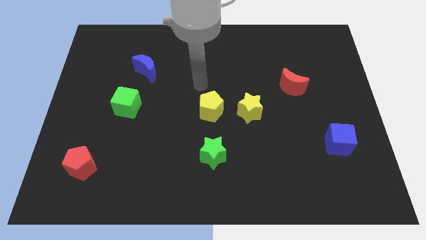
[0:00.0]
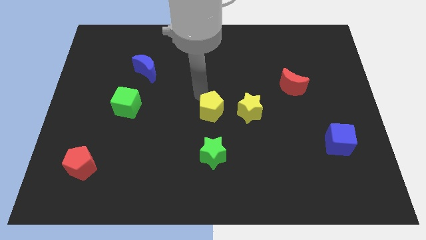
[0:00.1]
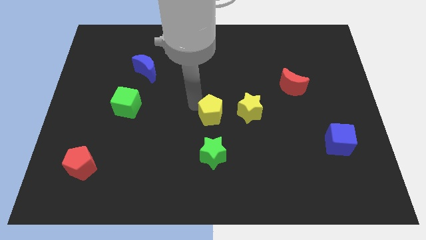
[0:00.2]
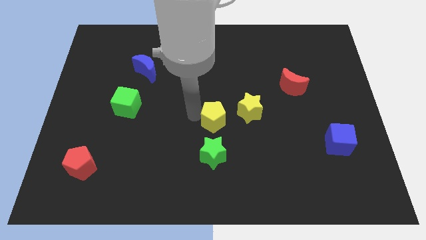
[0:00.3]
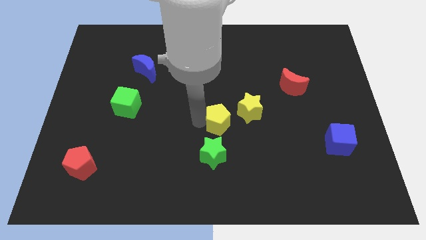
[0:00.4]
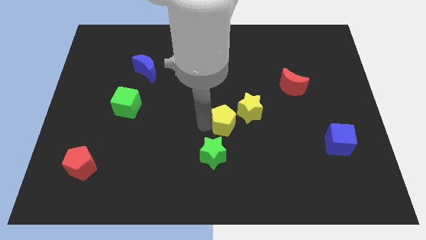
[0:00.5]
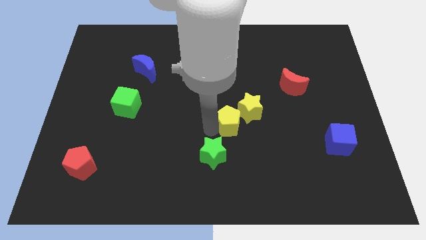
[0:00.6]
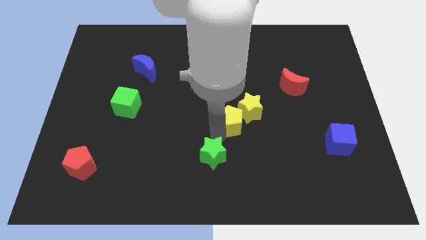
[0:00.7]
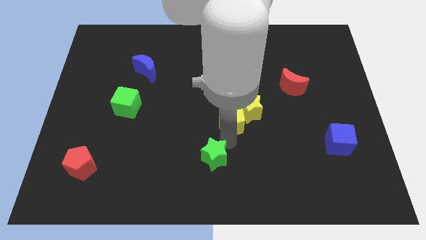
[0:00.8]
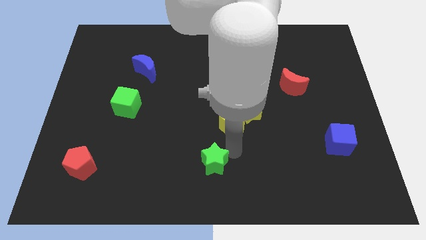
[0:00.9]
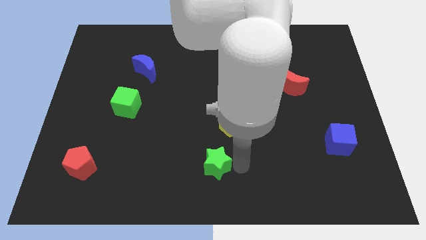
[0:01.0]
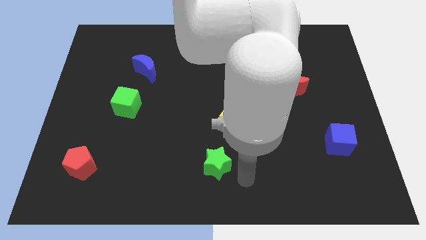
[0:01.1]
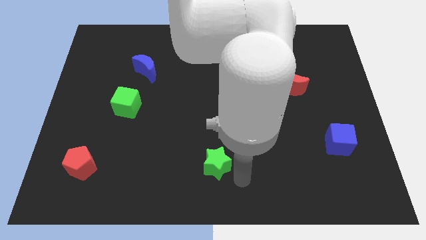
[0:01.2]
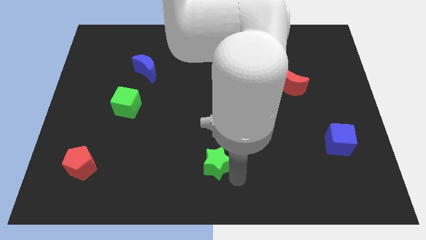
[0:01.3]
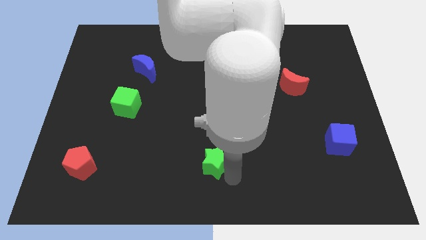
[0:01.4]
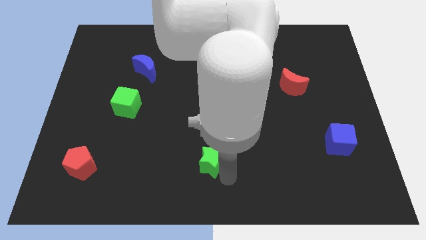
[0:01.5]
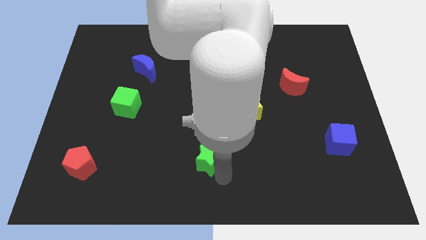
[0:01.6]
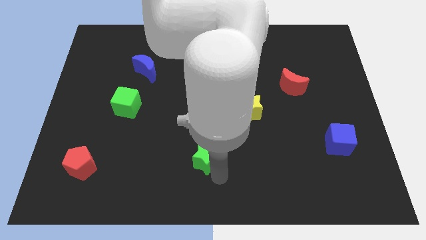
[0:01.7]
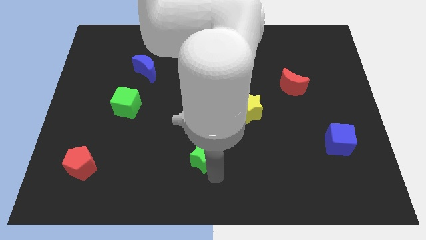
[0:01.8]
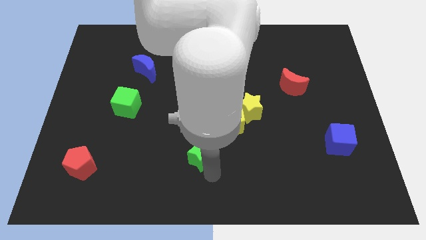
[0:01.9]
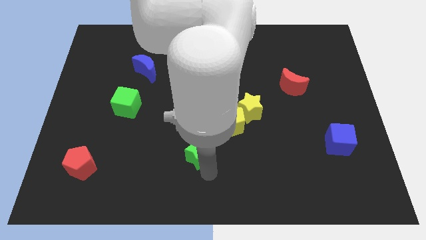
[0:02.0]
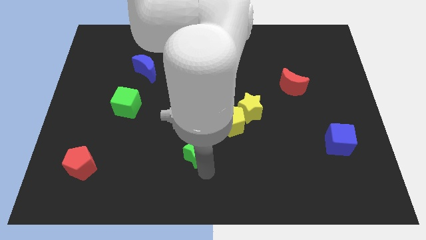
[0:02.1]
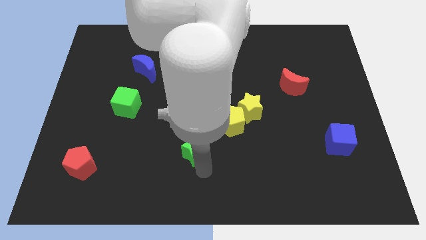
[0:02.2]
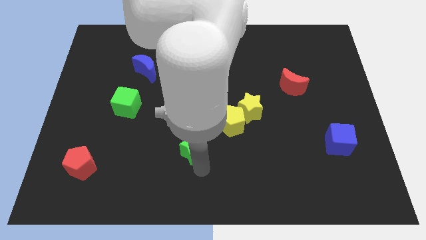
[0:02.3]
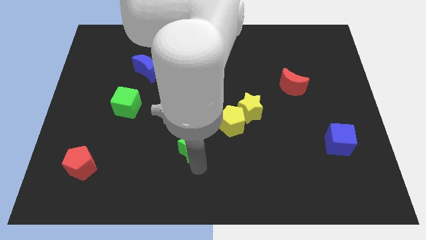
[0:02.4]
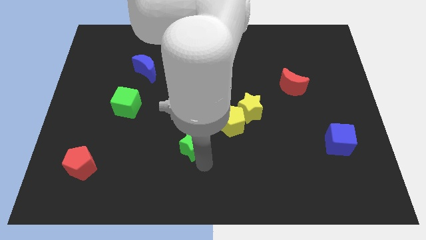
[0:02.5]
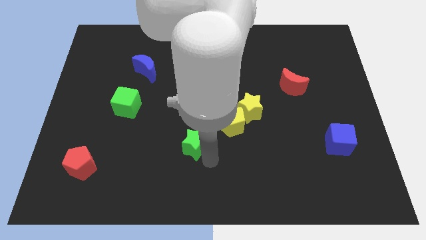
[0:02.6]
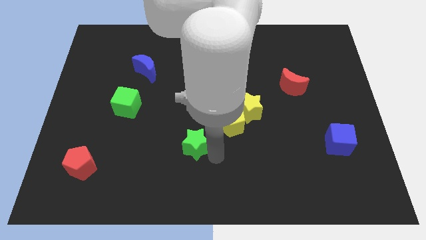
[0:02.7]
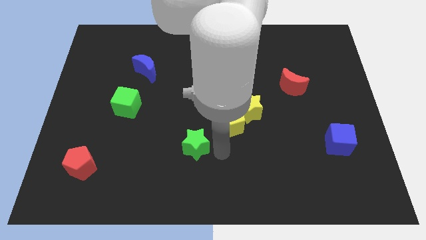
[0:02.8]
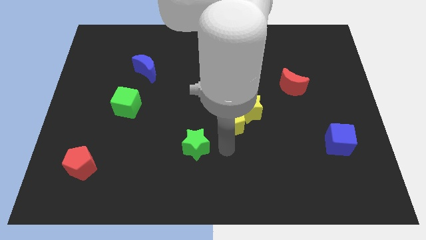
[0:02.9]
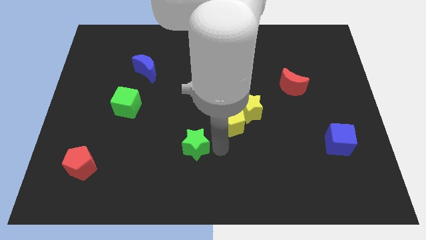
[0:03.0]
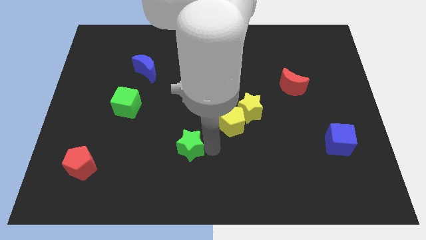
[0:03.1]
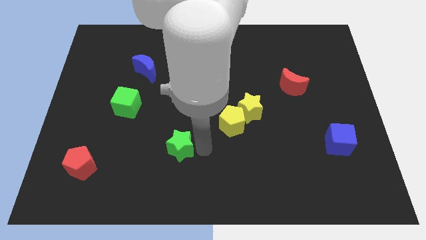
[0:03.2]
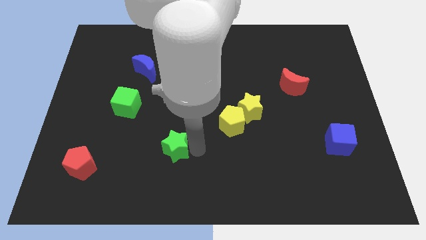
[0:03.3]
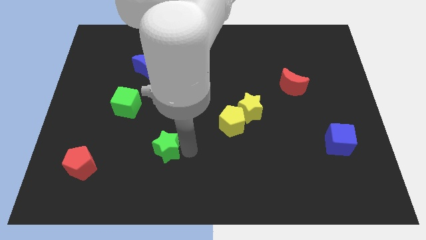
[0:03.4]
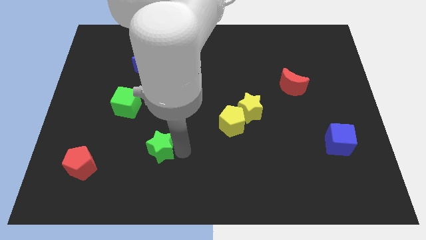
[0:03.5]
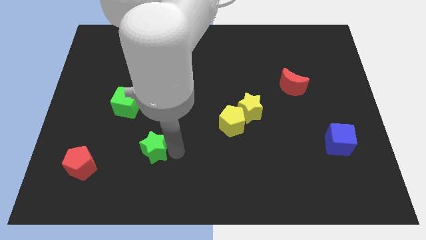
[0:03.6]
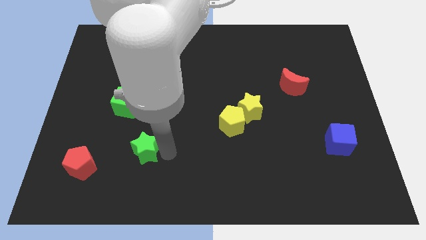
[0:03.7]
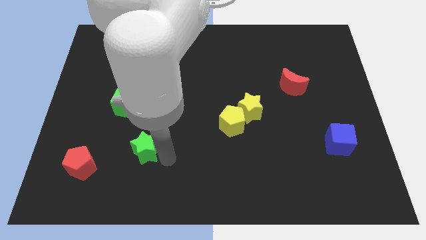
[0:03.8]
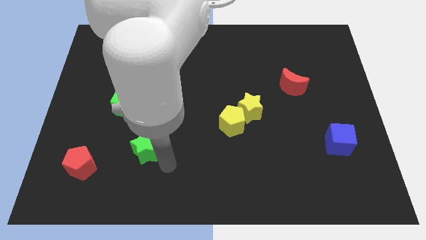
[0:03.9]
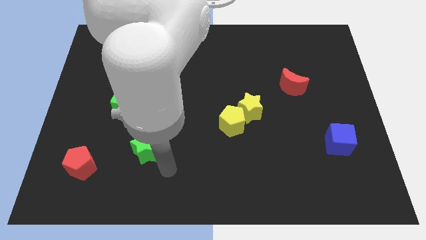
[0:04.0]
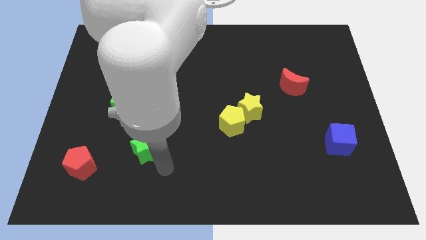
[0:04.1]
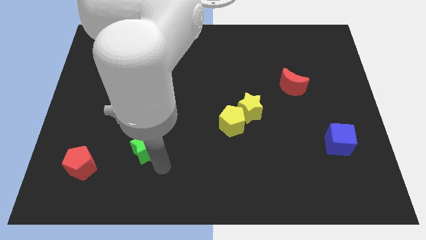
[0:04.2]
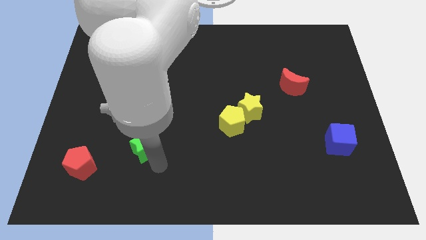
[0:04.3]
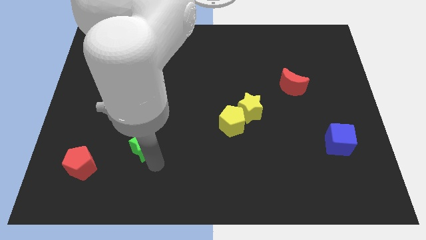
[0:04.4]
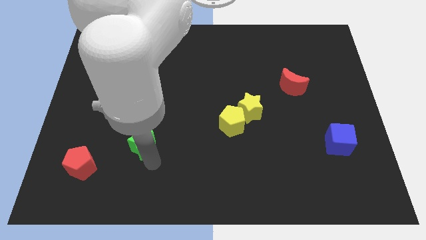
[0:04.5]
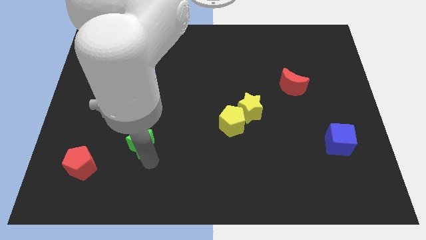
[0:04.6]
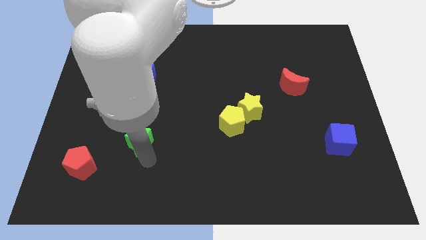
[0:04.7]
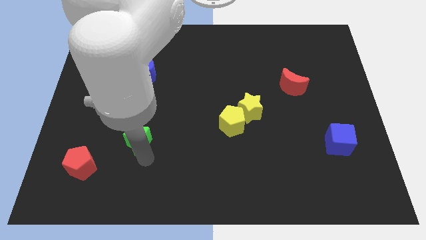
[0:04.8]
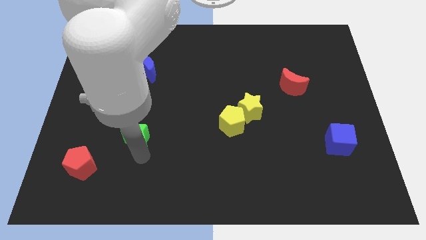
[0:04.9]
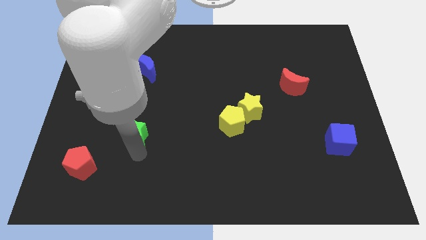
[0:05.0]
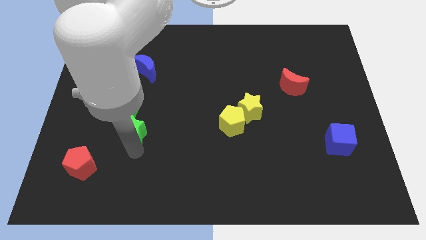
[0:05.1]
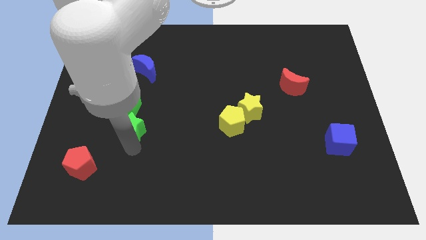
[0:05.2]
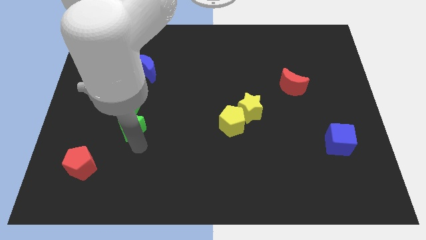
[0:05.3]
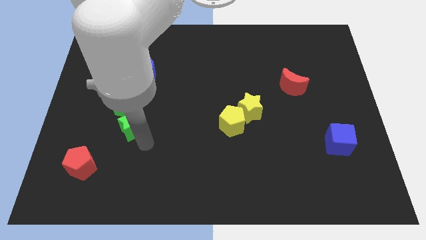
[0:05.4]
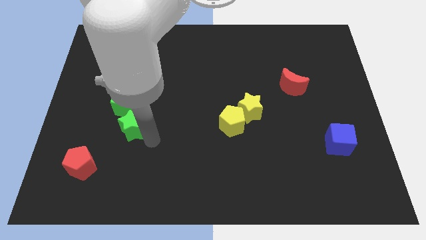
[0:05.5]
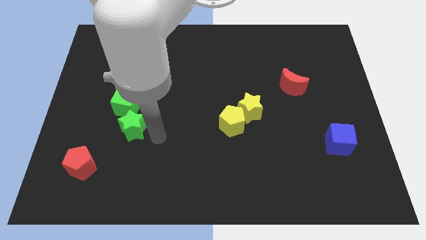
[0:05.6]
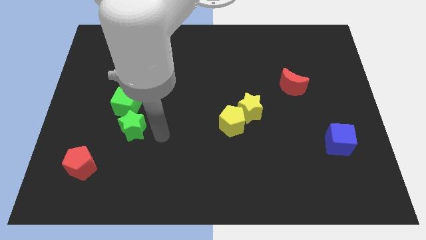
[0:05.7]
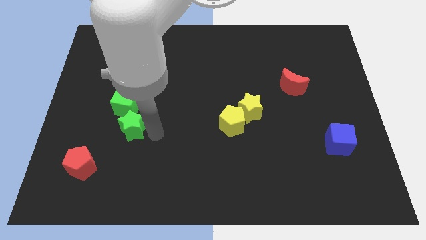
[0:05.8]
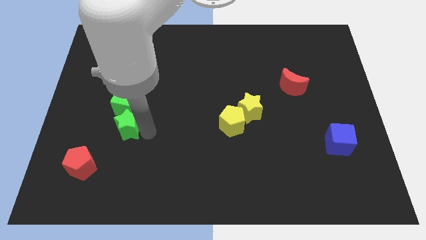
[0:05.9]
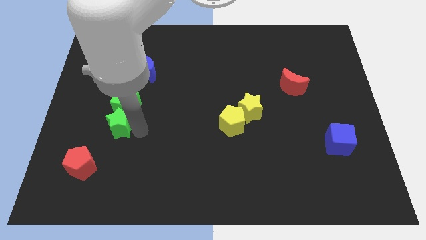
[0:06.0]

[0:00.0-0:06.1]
move the green star to the bottom left of the green cube

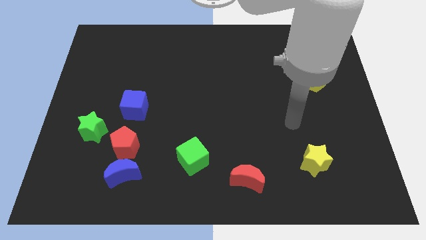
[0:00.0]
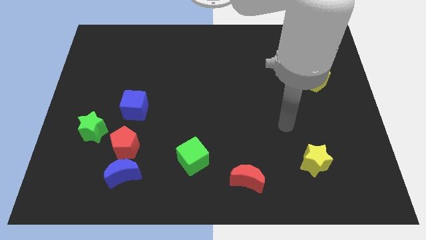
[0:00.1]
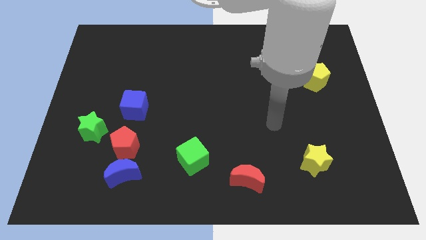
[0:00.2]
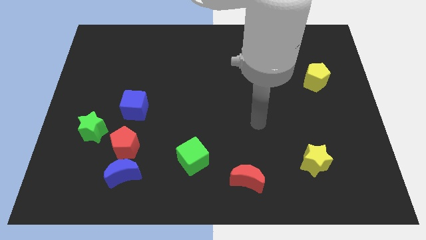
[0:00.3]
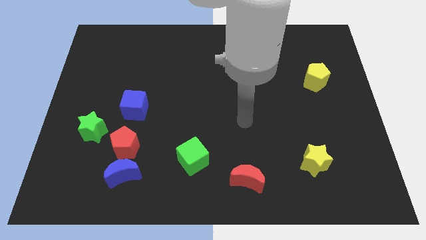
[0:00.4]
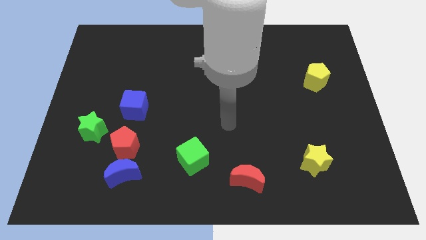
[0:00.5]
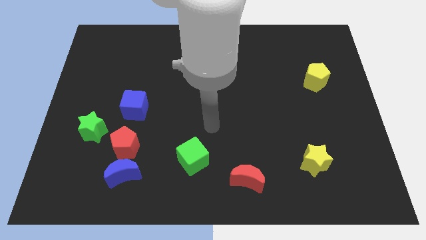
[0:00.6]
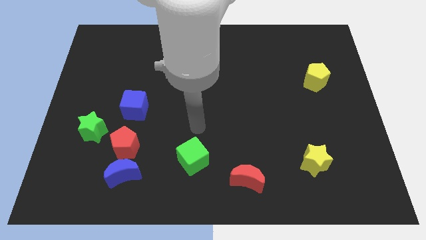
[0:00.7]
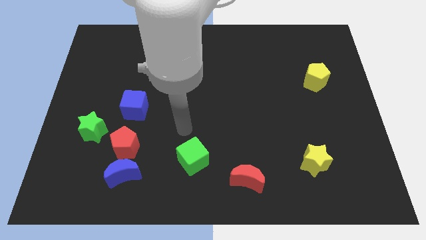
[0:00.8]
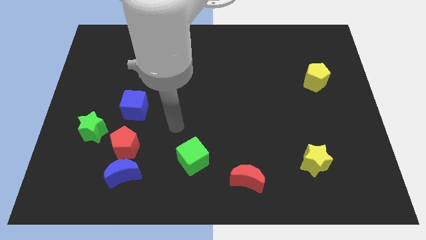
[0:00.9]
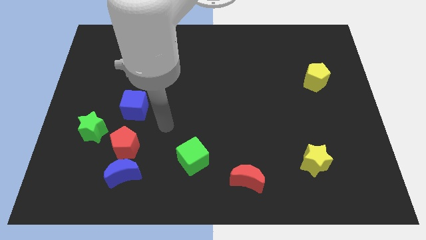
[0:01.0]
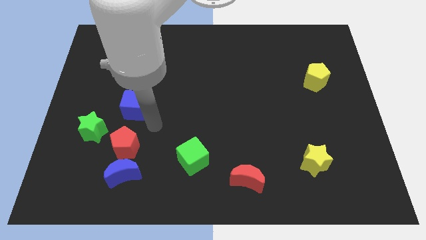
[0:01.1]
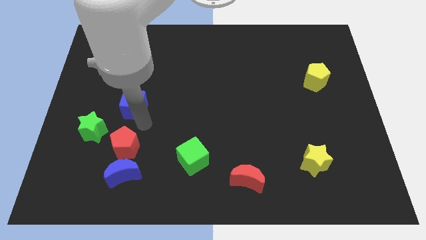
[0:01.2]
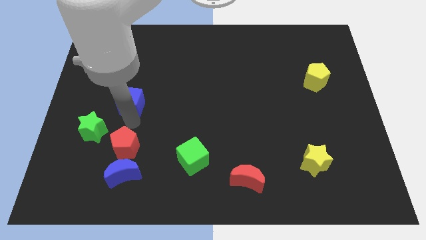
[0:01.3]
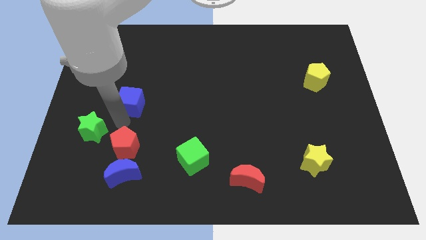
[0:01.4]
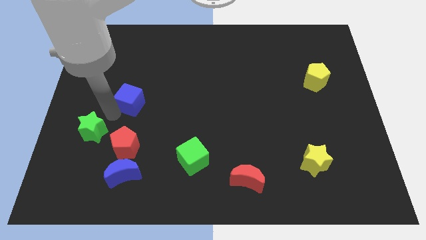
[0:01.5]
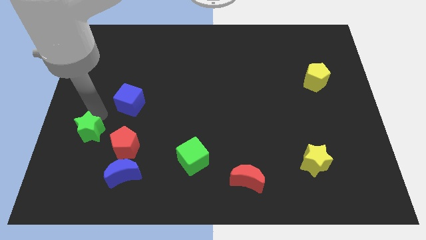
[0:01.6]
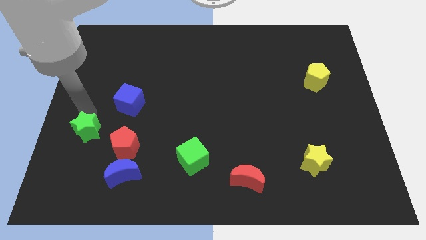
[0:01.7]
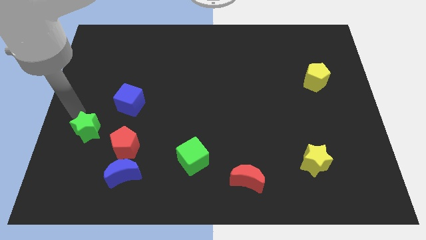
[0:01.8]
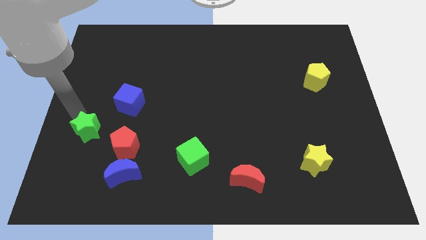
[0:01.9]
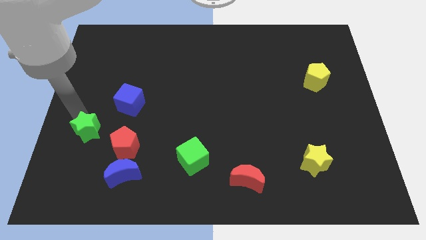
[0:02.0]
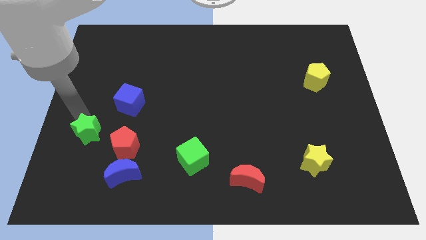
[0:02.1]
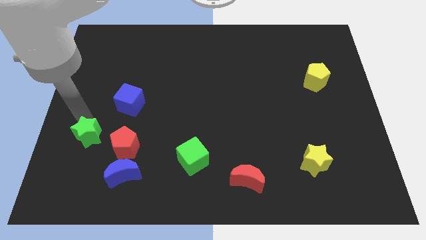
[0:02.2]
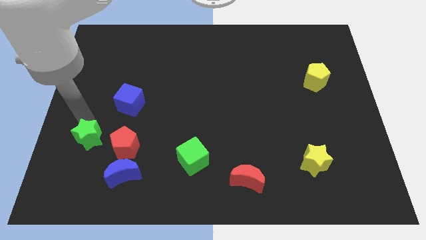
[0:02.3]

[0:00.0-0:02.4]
push the green star to the top left of the blue moon
